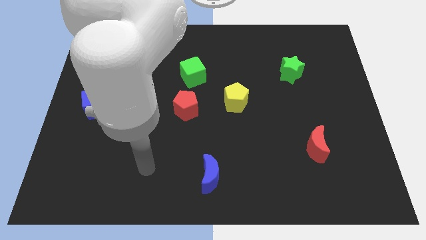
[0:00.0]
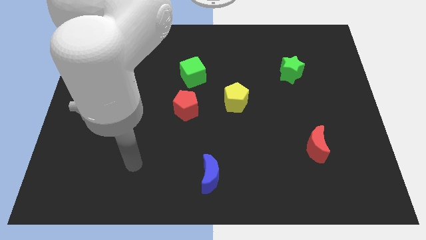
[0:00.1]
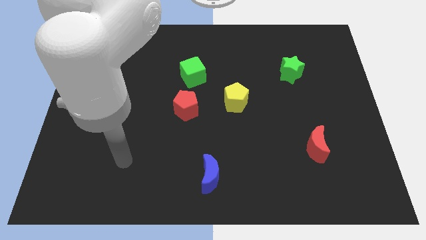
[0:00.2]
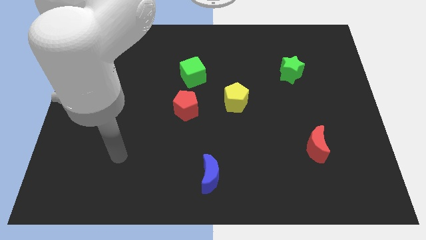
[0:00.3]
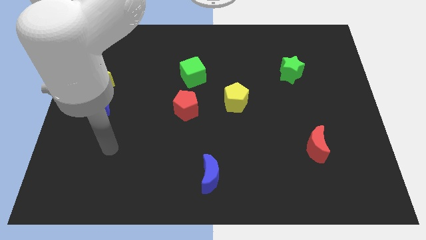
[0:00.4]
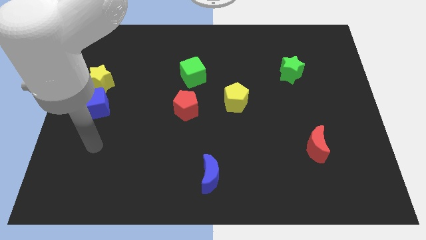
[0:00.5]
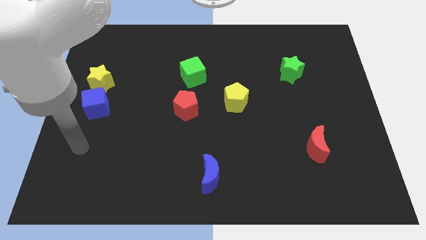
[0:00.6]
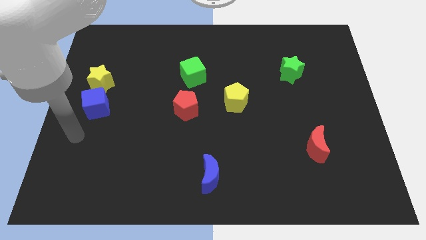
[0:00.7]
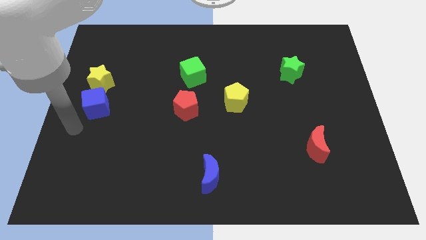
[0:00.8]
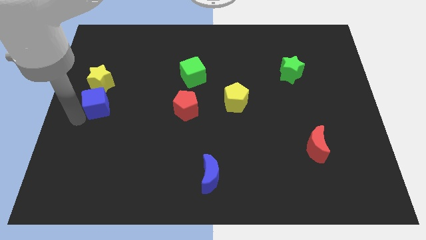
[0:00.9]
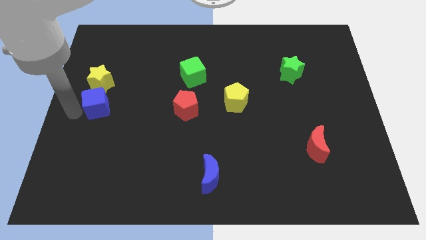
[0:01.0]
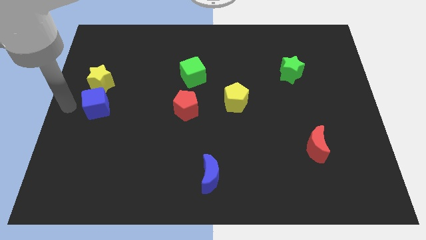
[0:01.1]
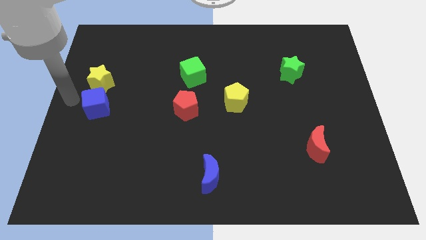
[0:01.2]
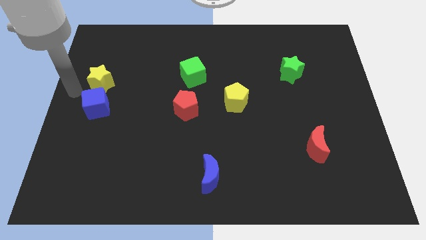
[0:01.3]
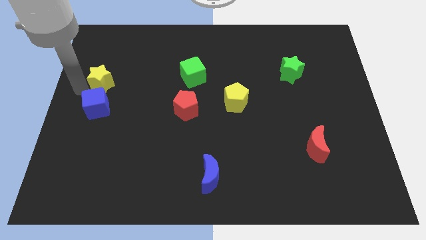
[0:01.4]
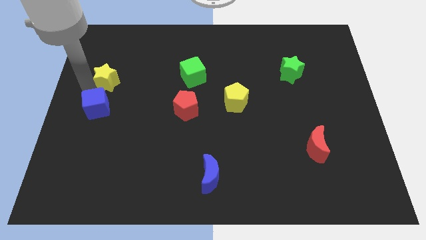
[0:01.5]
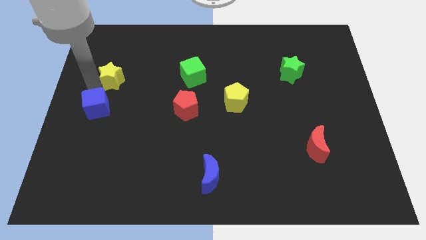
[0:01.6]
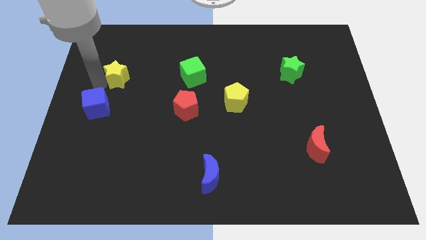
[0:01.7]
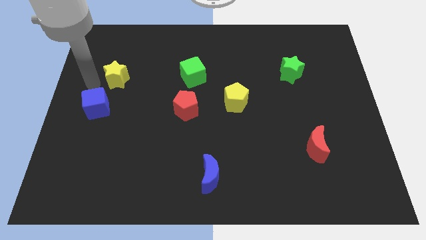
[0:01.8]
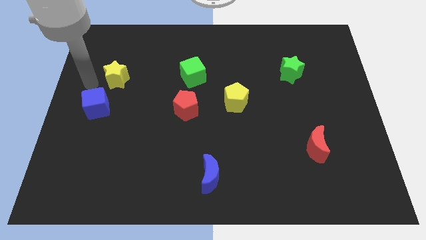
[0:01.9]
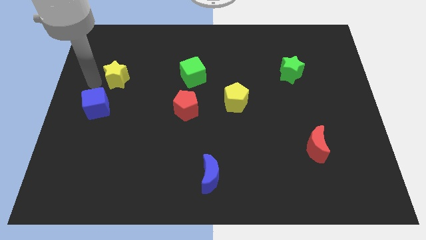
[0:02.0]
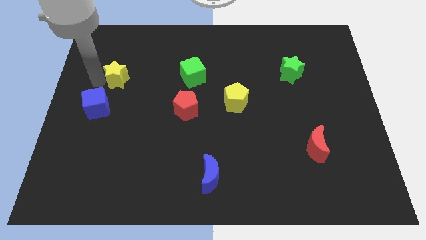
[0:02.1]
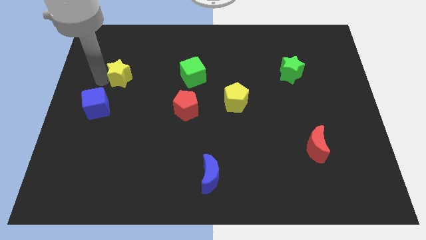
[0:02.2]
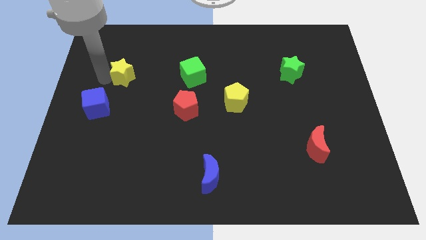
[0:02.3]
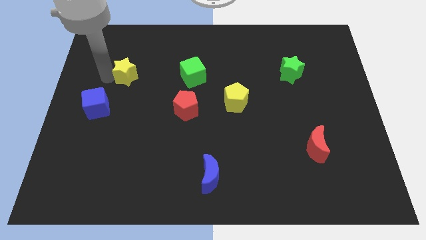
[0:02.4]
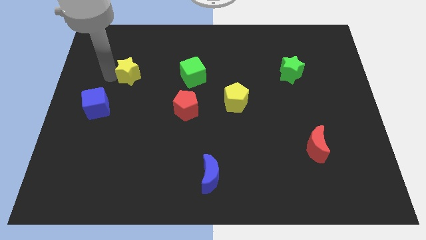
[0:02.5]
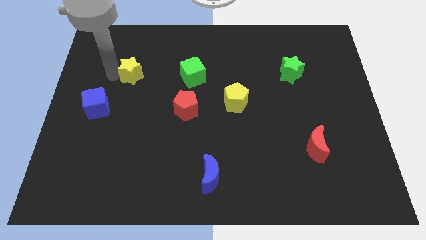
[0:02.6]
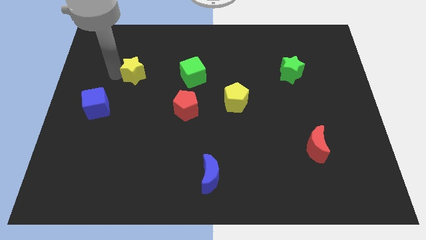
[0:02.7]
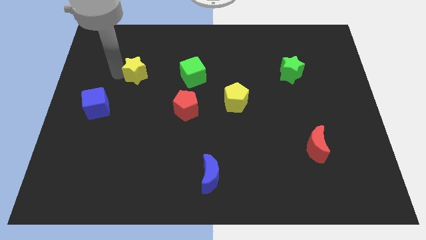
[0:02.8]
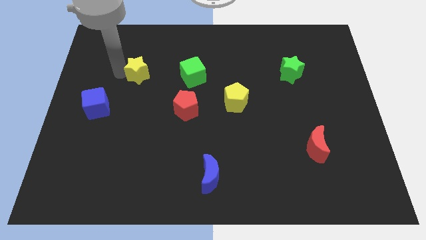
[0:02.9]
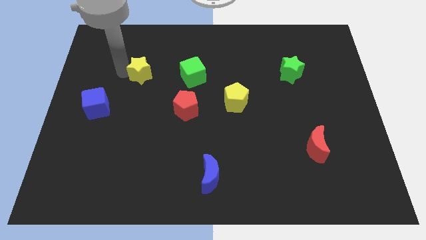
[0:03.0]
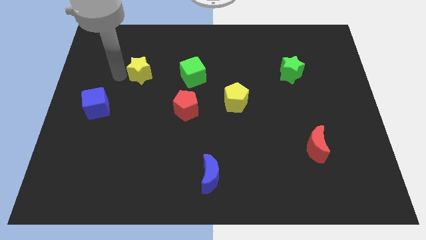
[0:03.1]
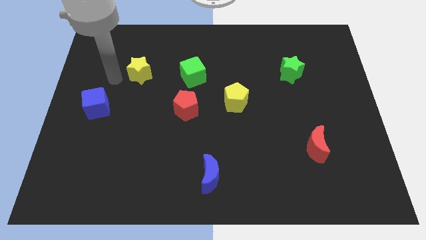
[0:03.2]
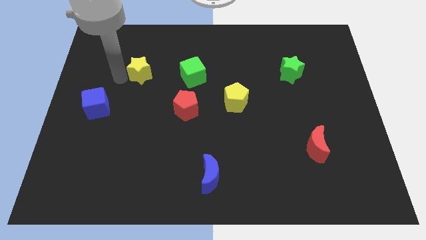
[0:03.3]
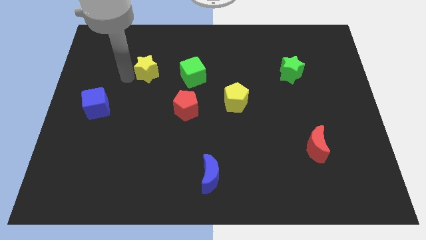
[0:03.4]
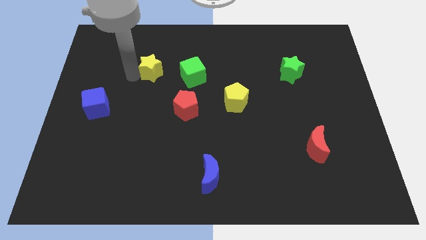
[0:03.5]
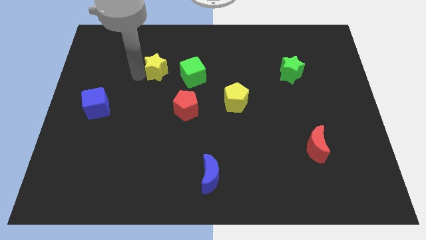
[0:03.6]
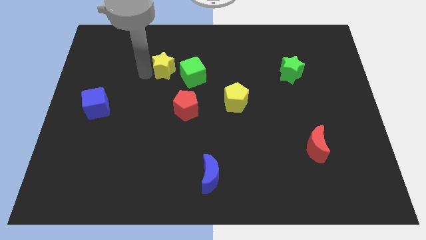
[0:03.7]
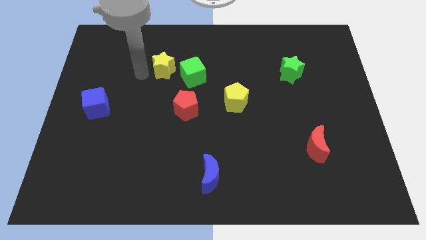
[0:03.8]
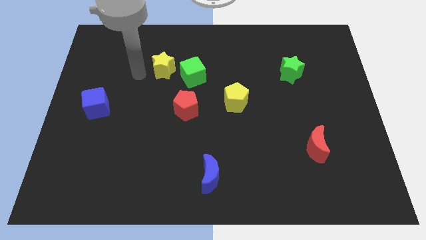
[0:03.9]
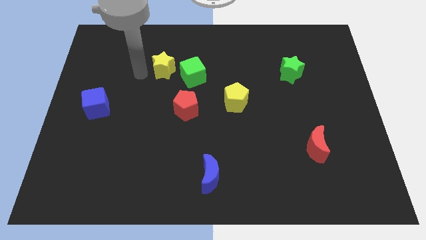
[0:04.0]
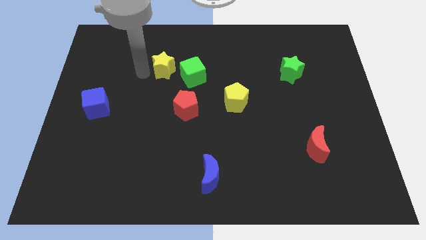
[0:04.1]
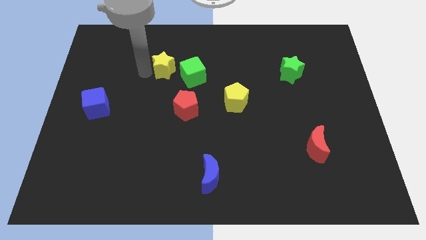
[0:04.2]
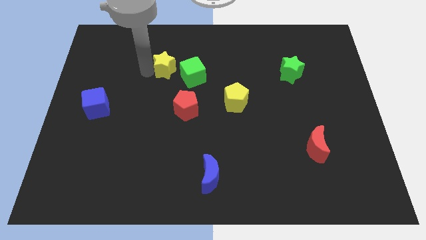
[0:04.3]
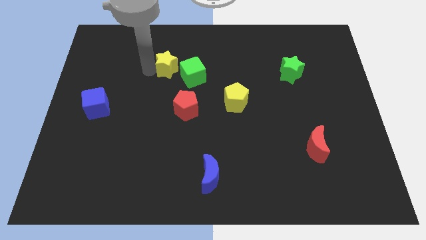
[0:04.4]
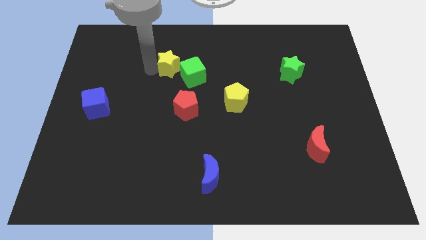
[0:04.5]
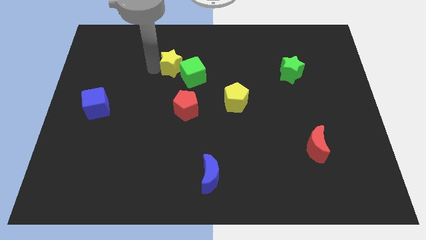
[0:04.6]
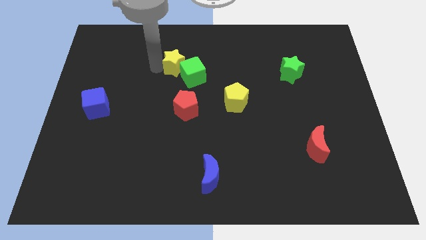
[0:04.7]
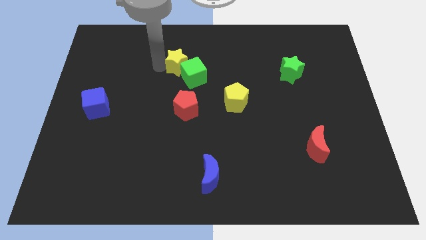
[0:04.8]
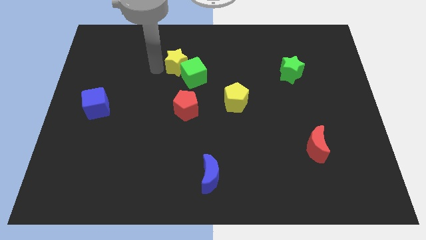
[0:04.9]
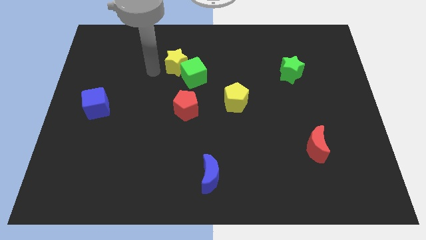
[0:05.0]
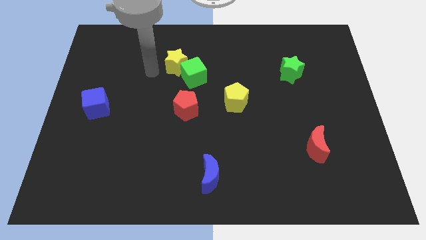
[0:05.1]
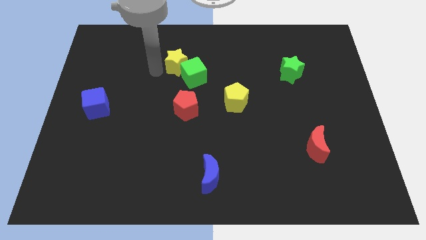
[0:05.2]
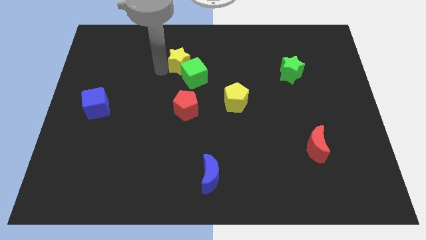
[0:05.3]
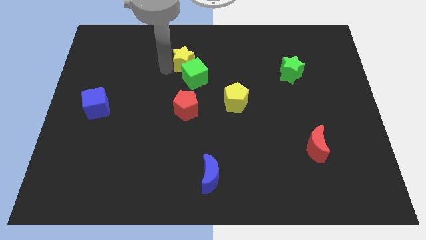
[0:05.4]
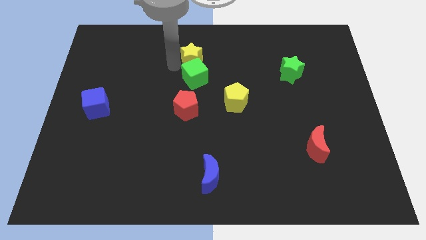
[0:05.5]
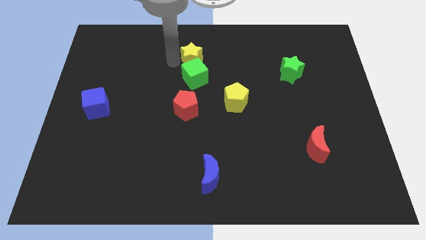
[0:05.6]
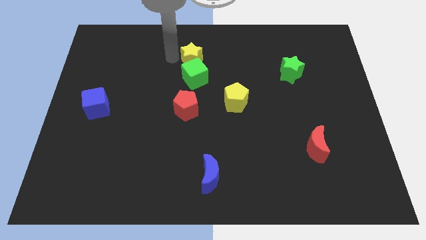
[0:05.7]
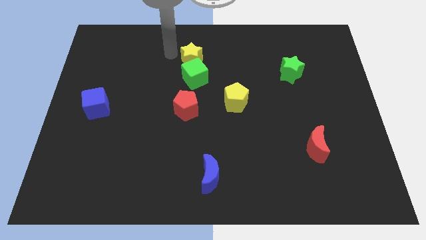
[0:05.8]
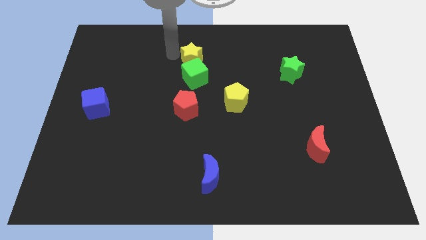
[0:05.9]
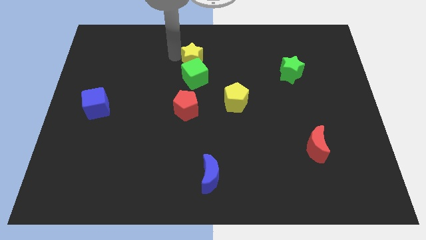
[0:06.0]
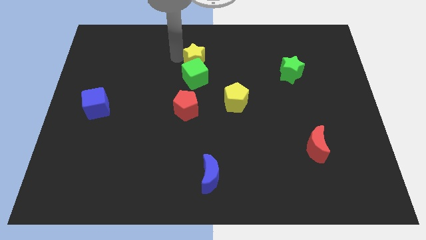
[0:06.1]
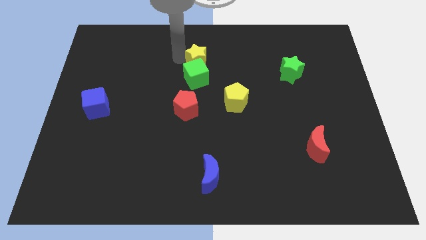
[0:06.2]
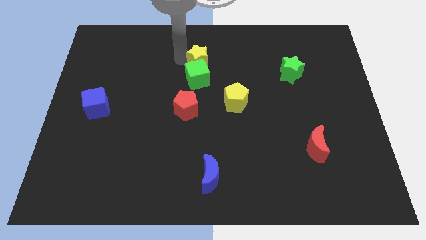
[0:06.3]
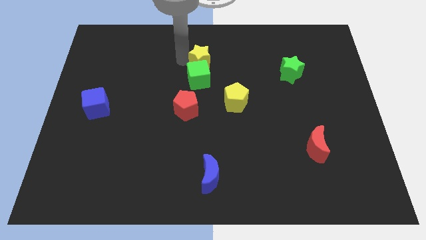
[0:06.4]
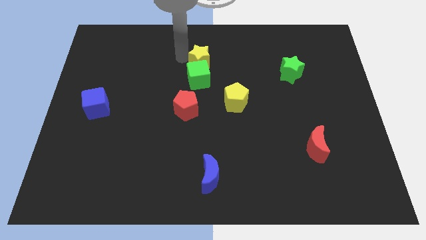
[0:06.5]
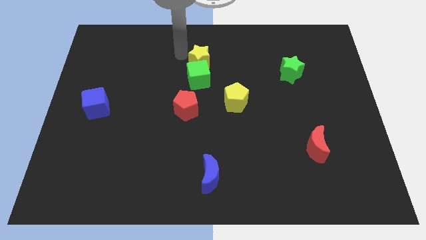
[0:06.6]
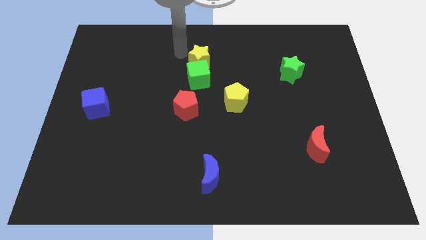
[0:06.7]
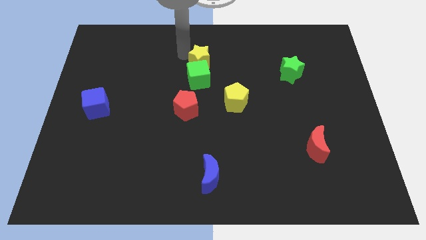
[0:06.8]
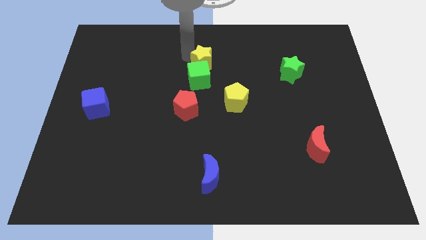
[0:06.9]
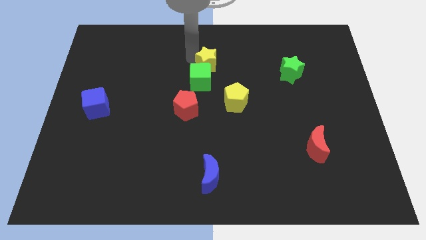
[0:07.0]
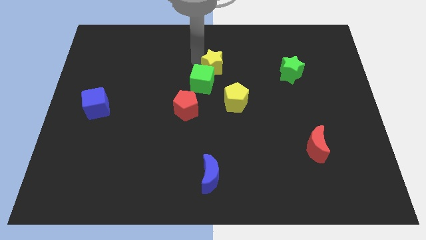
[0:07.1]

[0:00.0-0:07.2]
put the yellow star to the top of the yellow pentagon
